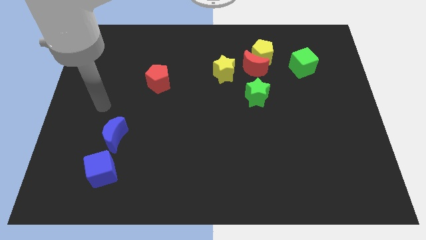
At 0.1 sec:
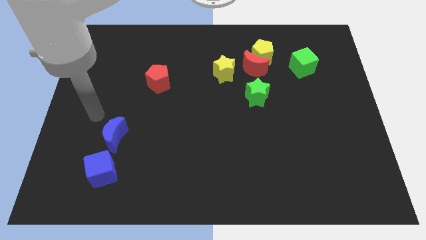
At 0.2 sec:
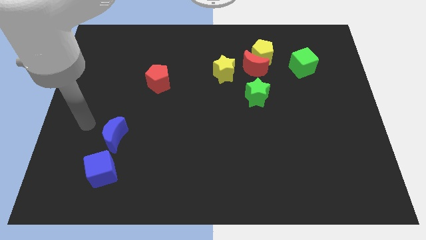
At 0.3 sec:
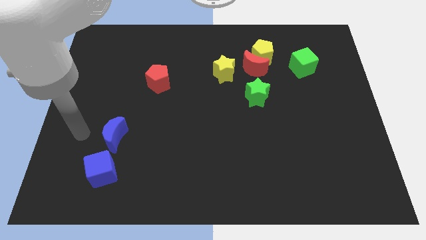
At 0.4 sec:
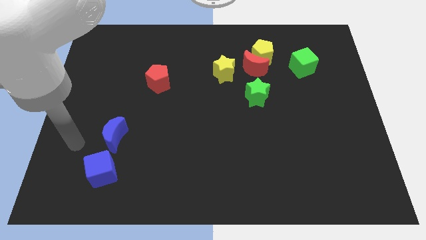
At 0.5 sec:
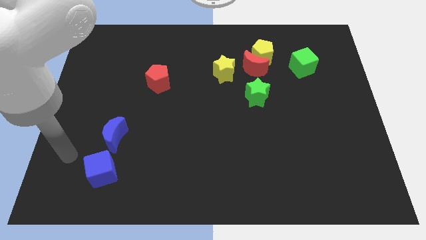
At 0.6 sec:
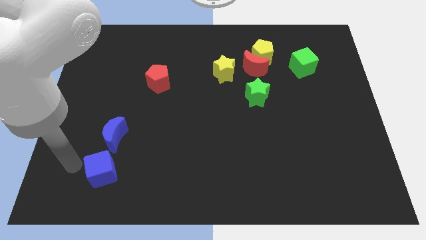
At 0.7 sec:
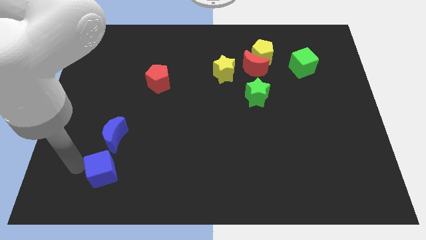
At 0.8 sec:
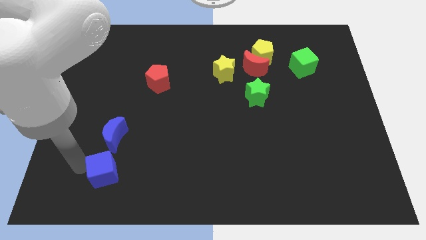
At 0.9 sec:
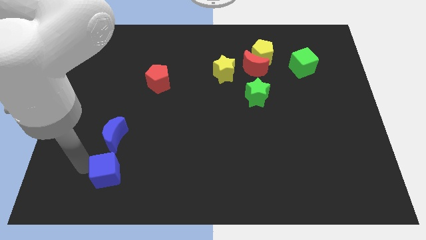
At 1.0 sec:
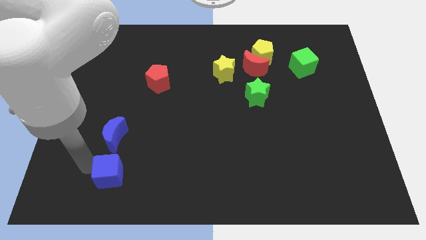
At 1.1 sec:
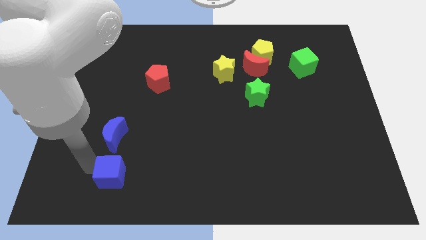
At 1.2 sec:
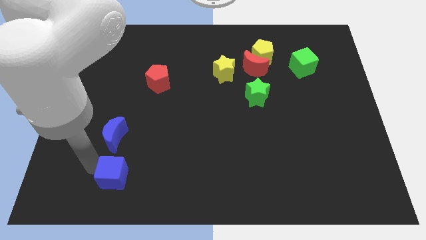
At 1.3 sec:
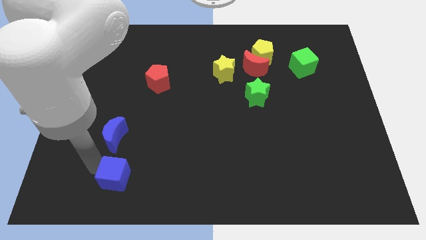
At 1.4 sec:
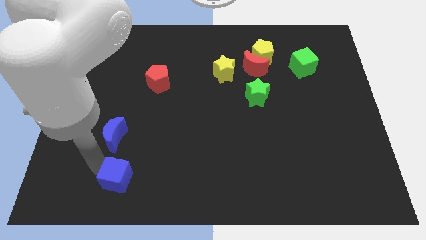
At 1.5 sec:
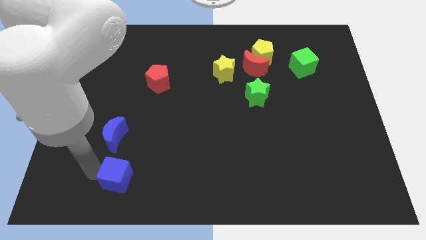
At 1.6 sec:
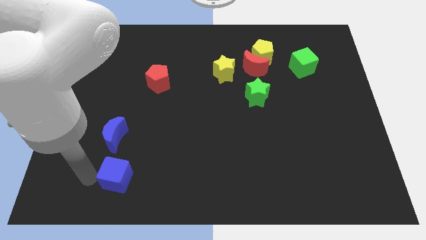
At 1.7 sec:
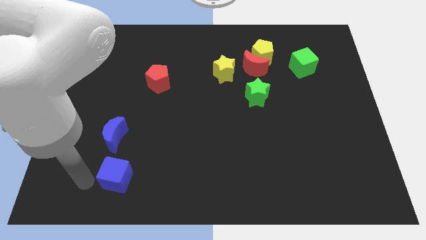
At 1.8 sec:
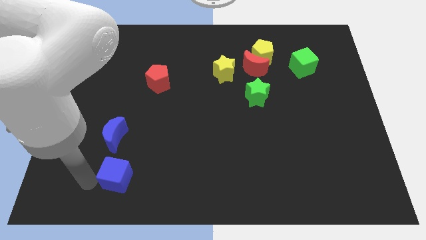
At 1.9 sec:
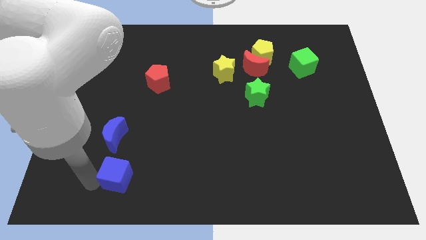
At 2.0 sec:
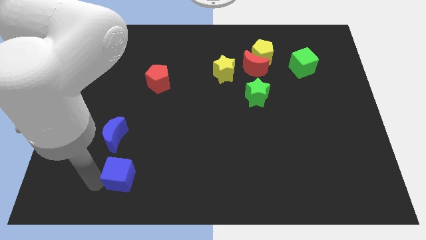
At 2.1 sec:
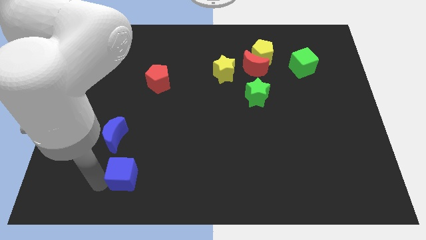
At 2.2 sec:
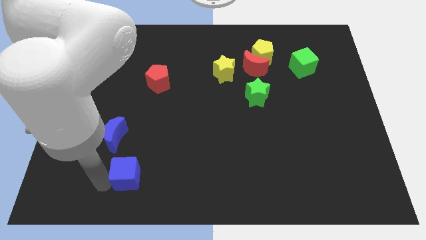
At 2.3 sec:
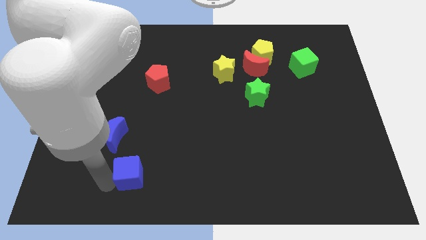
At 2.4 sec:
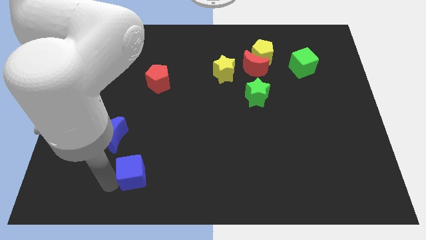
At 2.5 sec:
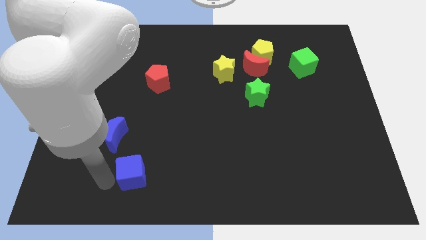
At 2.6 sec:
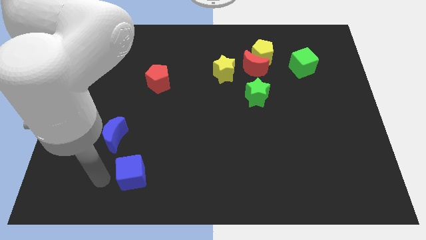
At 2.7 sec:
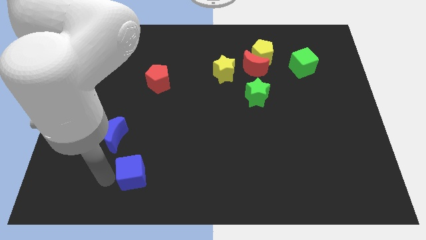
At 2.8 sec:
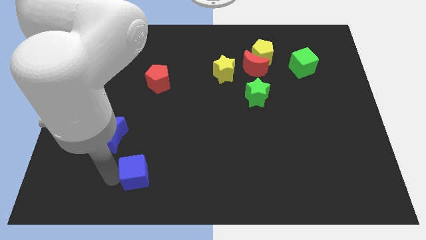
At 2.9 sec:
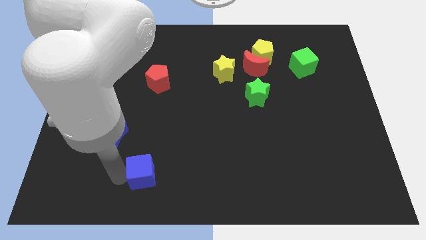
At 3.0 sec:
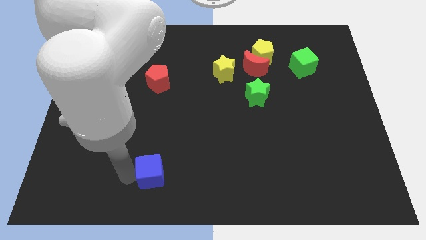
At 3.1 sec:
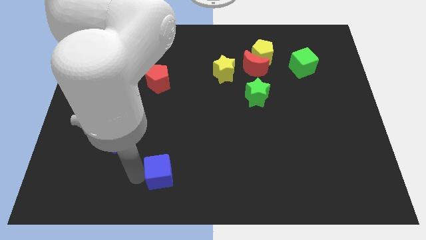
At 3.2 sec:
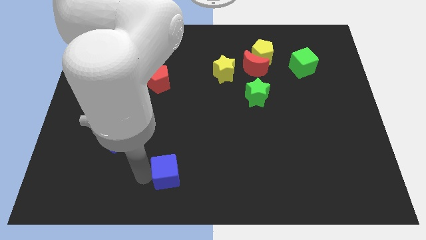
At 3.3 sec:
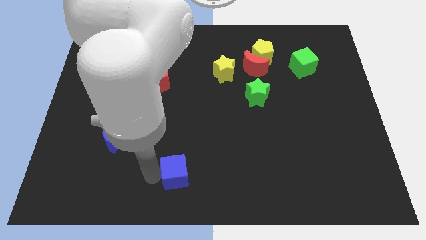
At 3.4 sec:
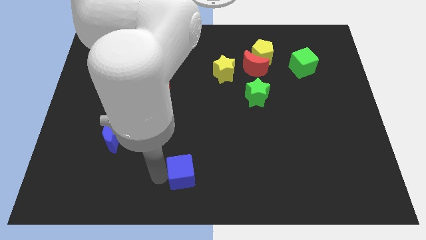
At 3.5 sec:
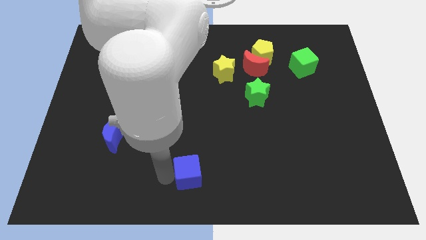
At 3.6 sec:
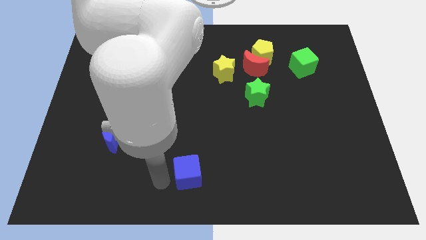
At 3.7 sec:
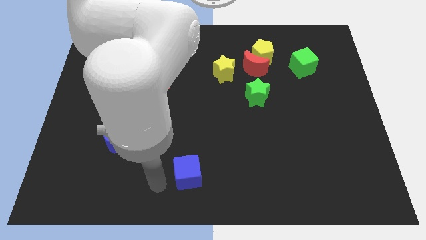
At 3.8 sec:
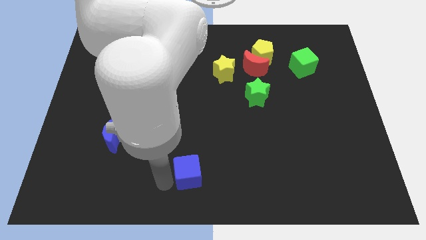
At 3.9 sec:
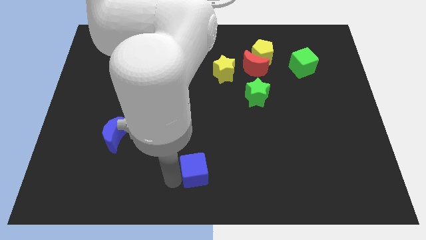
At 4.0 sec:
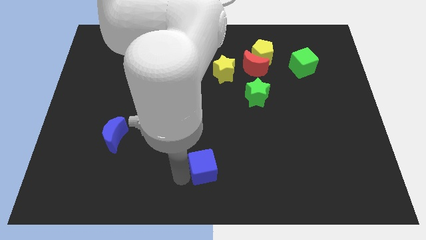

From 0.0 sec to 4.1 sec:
slide the blue cube right

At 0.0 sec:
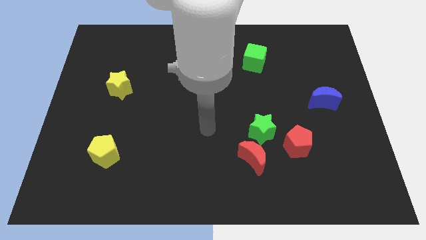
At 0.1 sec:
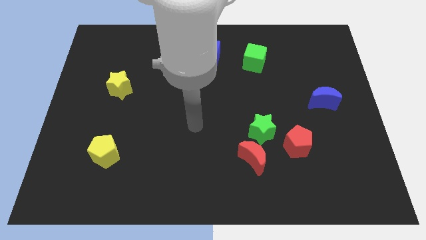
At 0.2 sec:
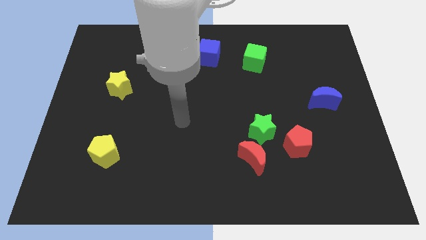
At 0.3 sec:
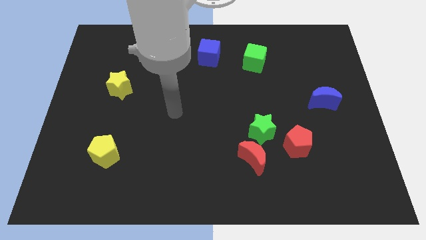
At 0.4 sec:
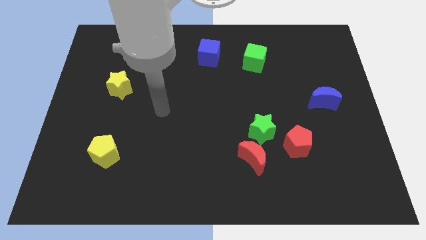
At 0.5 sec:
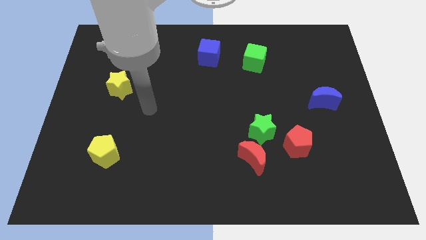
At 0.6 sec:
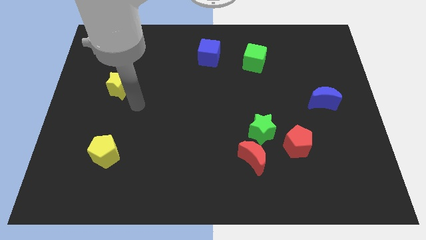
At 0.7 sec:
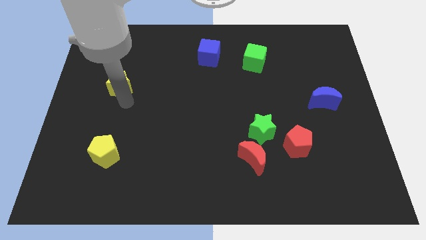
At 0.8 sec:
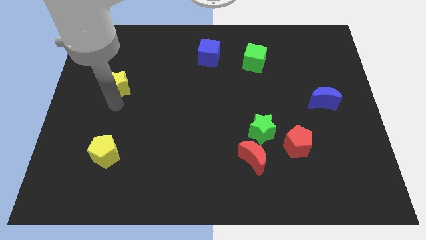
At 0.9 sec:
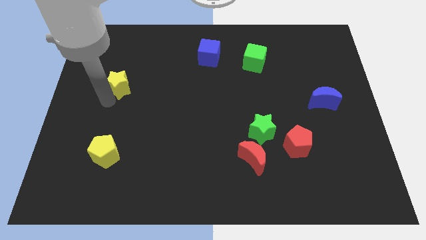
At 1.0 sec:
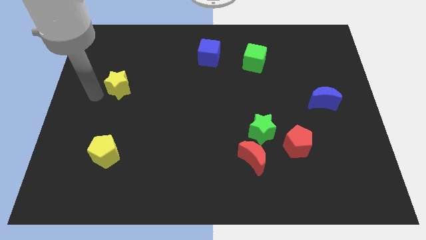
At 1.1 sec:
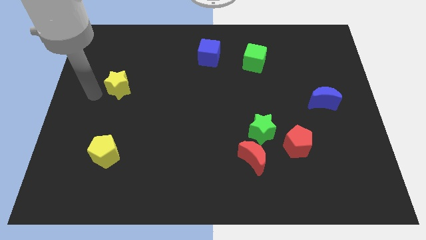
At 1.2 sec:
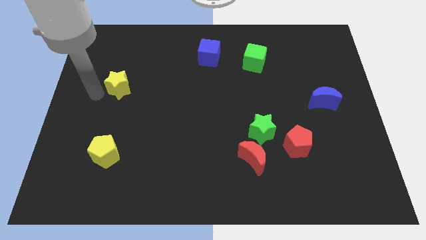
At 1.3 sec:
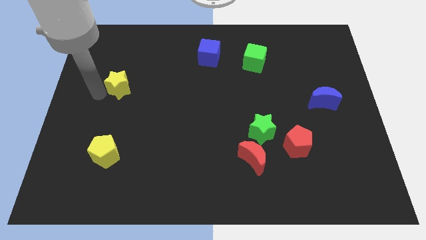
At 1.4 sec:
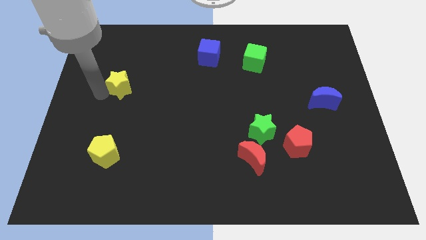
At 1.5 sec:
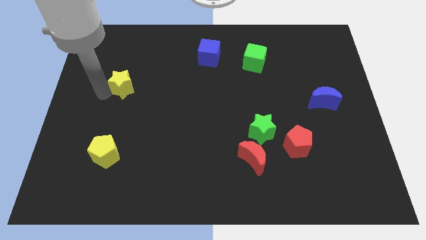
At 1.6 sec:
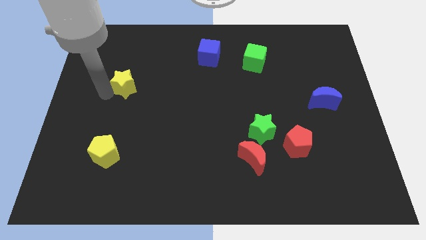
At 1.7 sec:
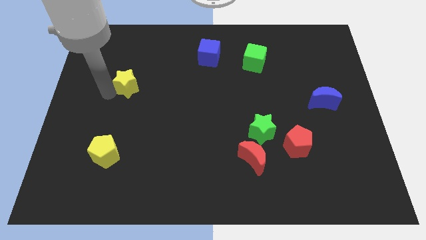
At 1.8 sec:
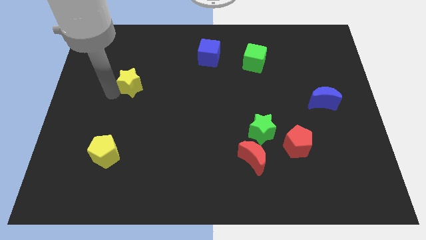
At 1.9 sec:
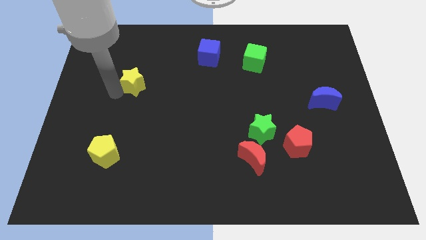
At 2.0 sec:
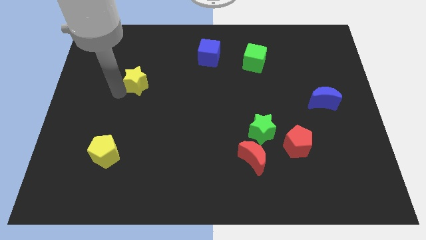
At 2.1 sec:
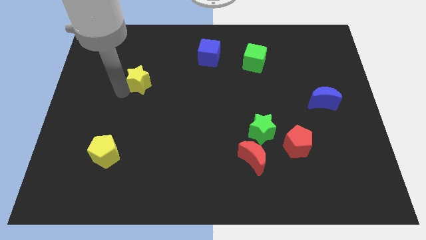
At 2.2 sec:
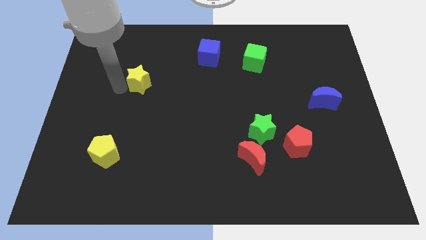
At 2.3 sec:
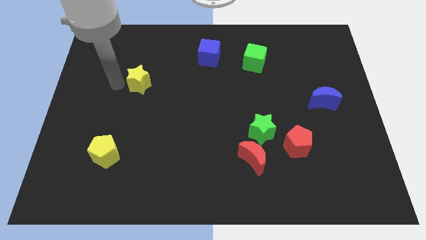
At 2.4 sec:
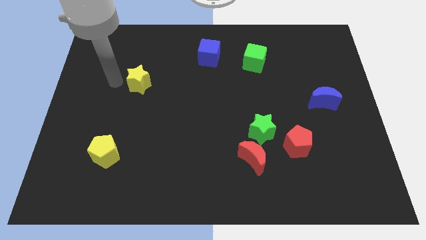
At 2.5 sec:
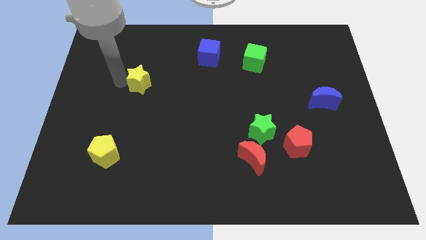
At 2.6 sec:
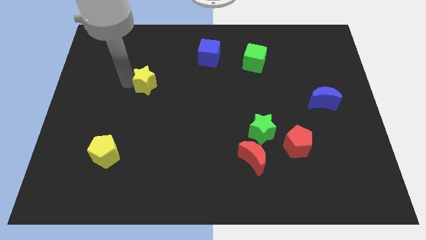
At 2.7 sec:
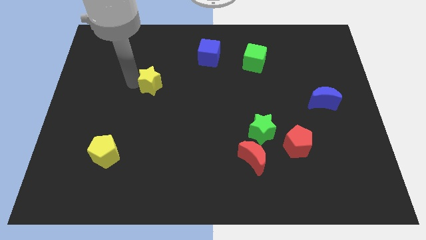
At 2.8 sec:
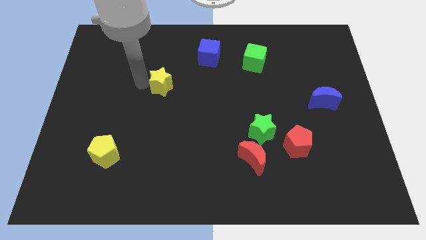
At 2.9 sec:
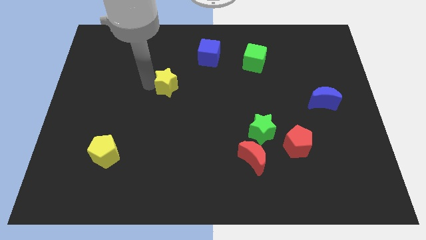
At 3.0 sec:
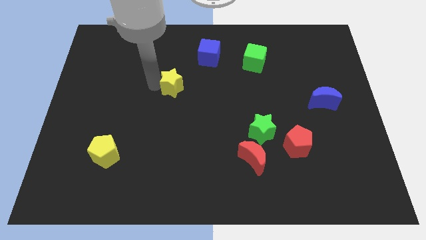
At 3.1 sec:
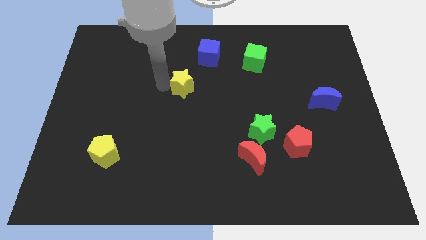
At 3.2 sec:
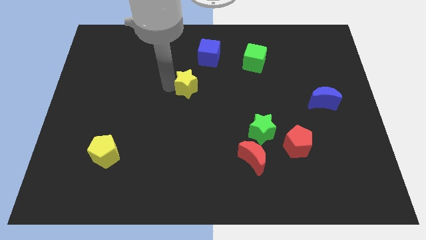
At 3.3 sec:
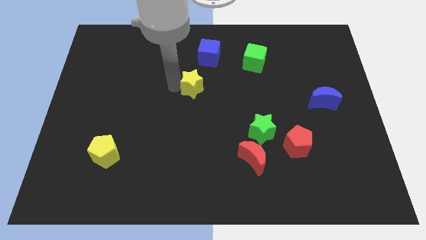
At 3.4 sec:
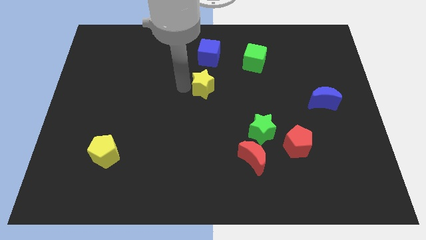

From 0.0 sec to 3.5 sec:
push the yellow star right

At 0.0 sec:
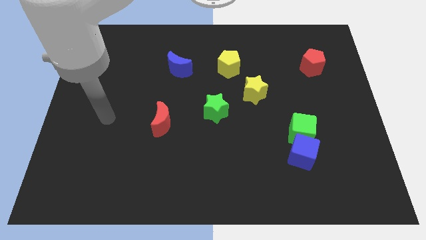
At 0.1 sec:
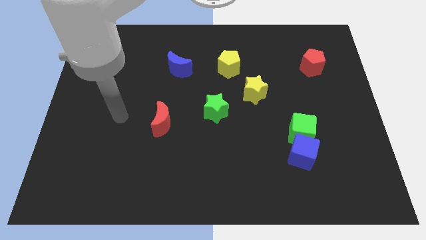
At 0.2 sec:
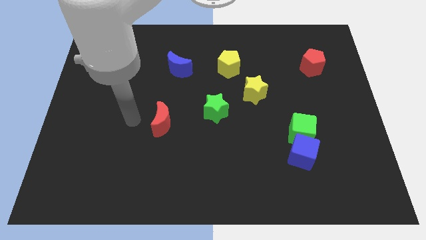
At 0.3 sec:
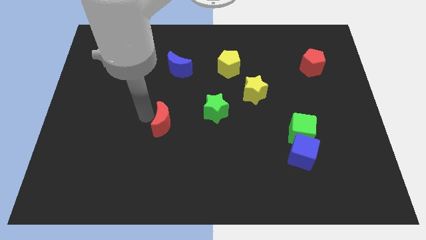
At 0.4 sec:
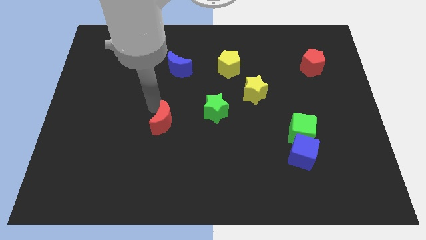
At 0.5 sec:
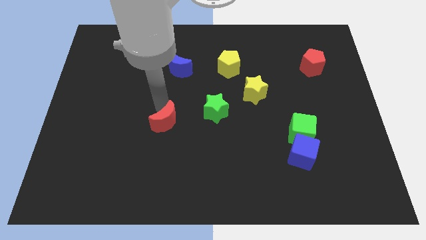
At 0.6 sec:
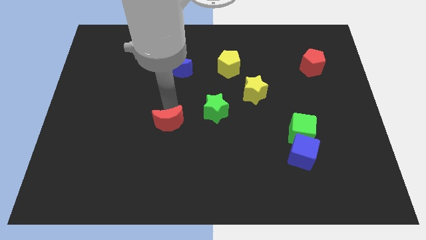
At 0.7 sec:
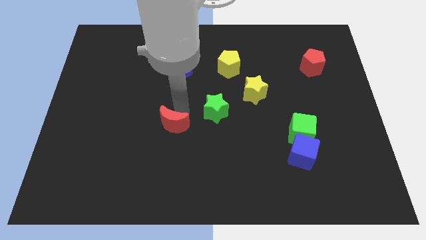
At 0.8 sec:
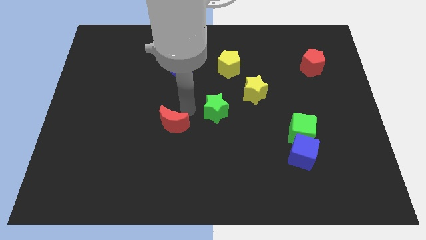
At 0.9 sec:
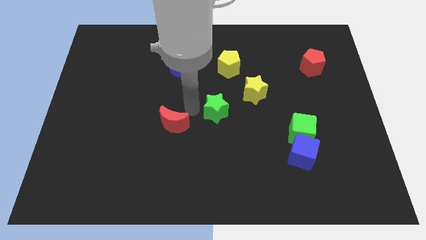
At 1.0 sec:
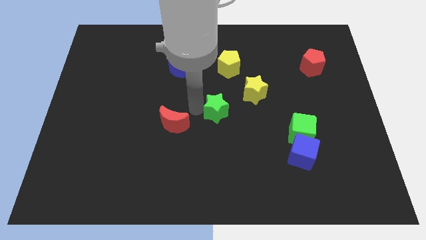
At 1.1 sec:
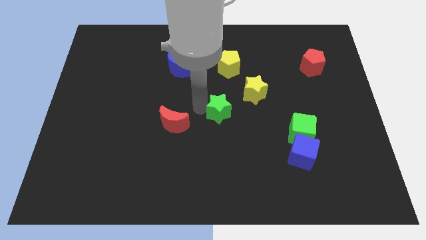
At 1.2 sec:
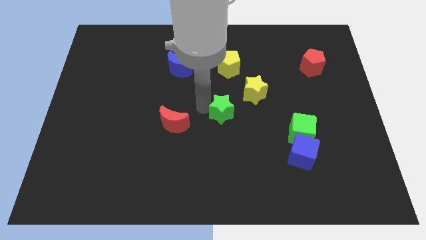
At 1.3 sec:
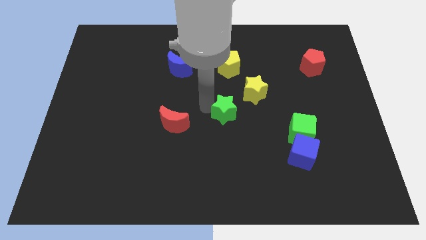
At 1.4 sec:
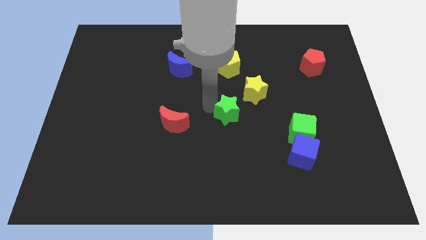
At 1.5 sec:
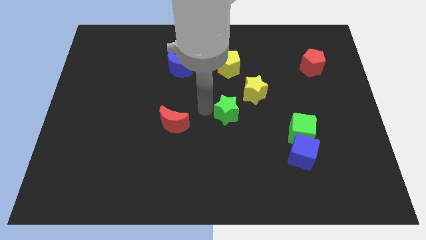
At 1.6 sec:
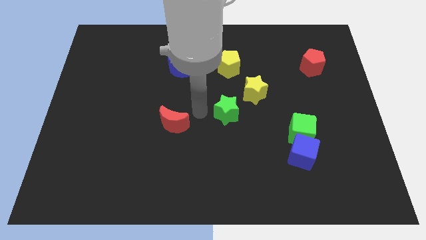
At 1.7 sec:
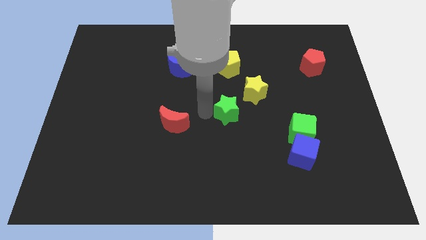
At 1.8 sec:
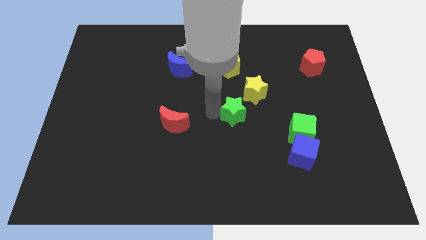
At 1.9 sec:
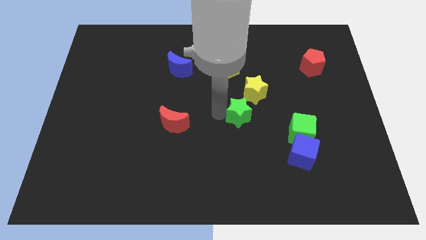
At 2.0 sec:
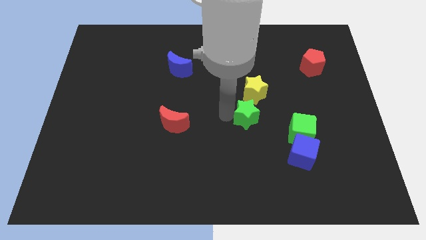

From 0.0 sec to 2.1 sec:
slightly move the green star to the right
